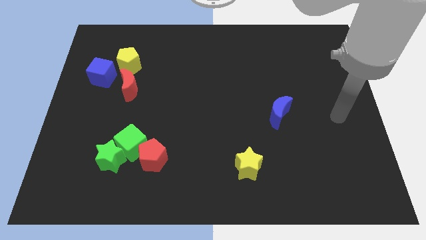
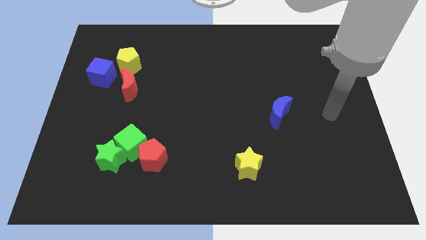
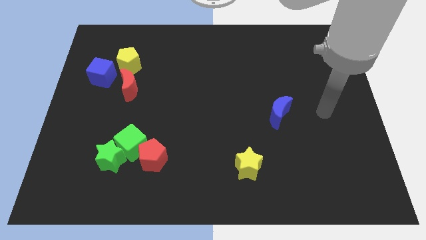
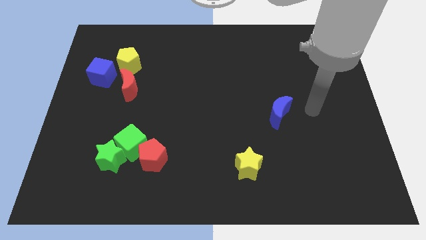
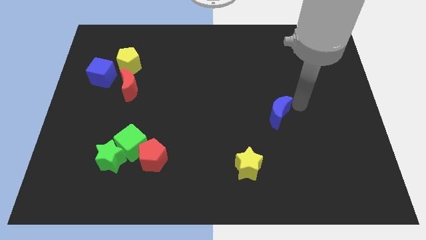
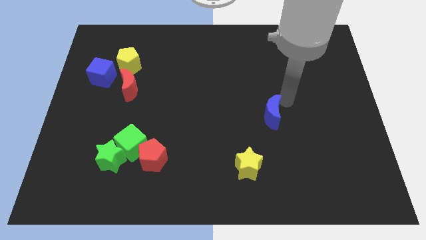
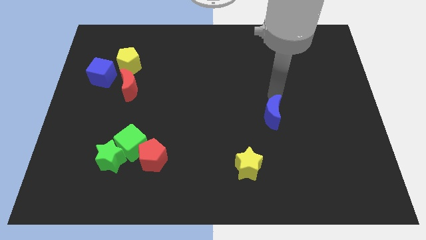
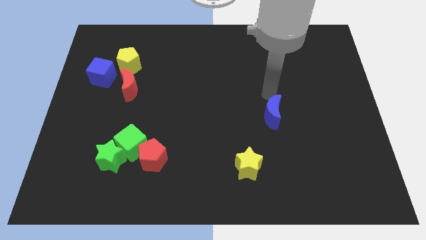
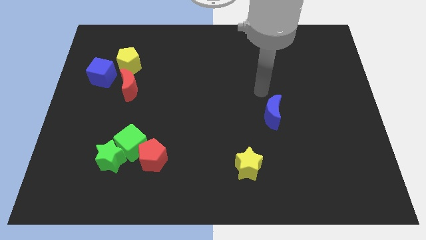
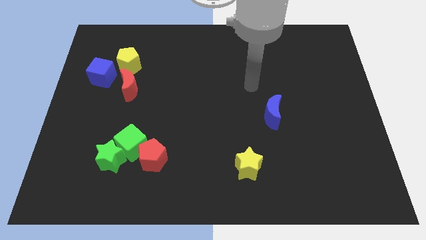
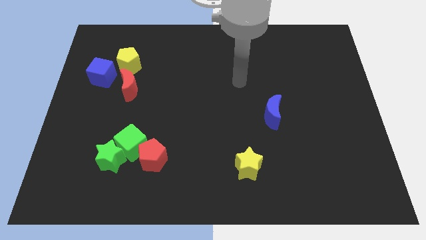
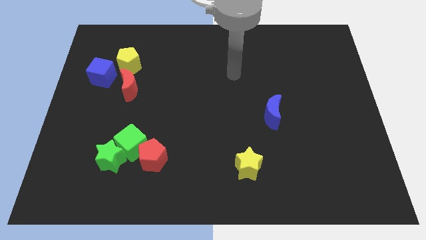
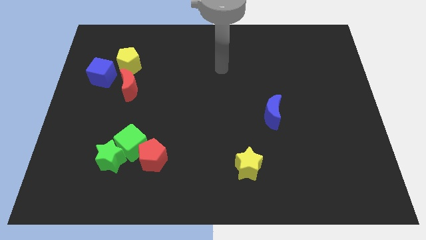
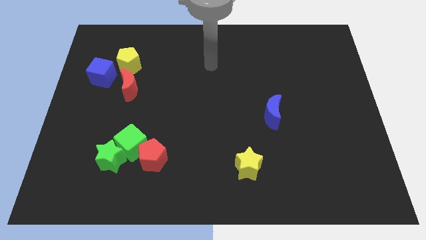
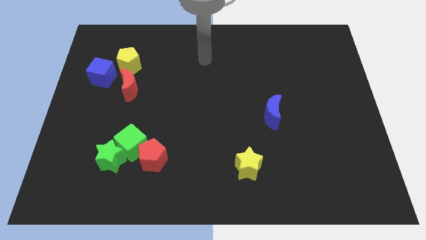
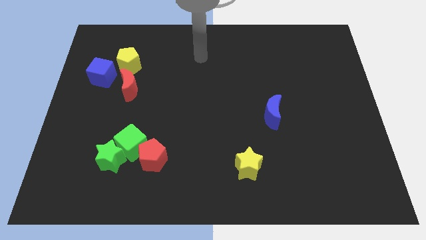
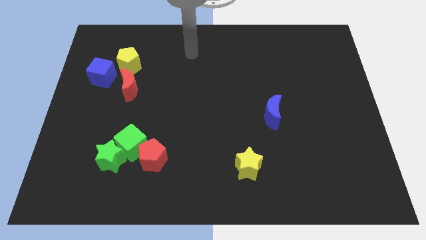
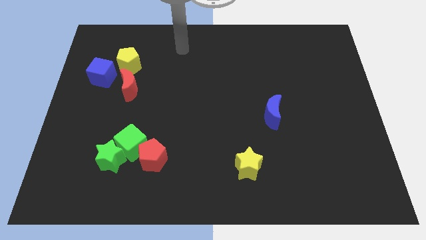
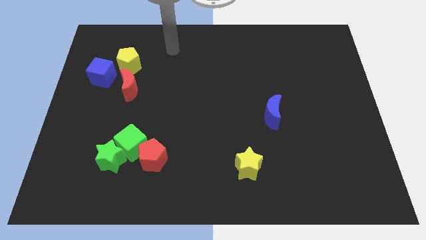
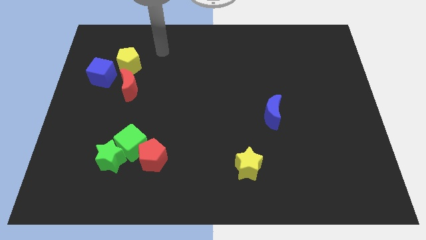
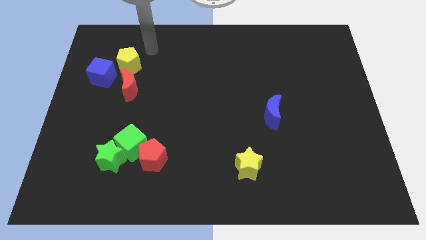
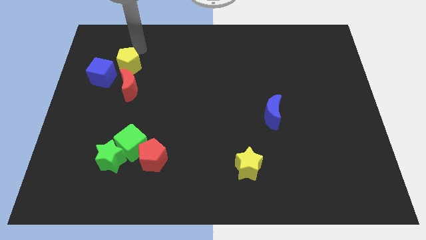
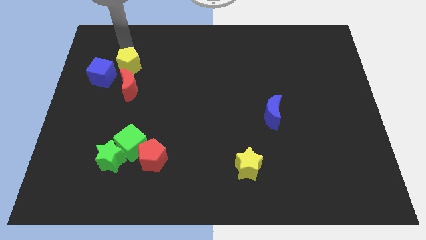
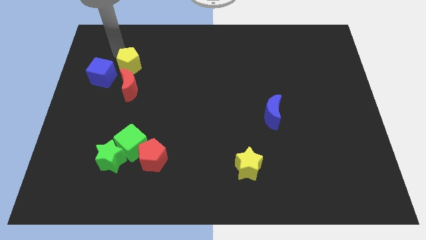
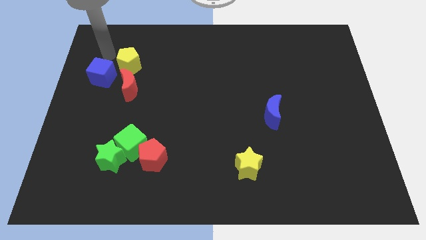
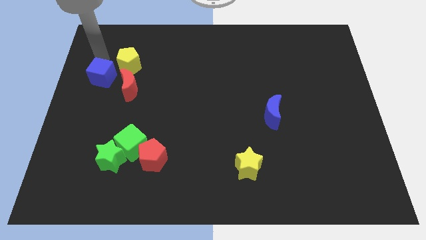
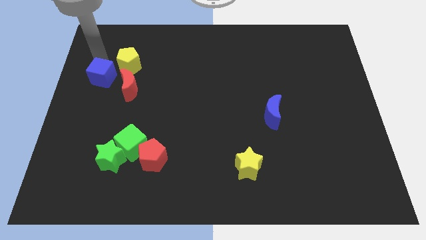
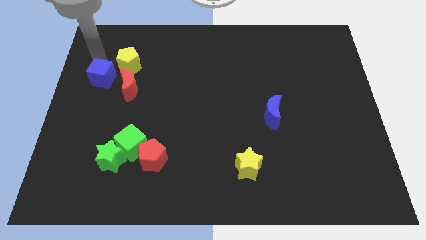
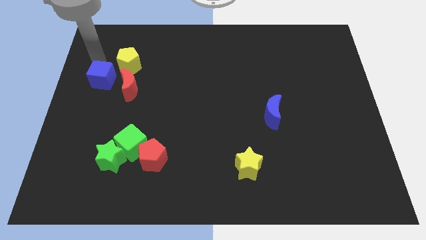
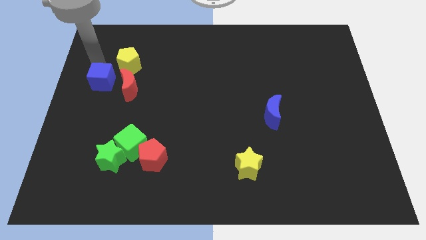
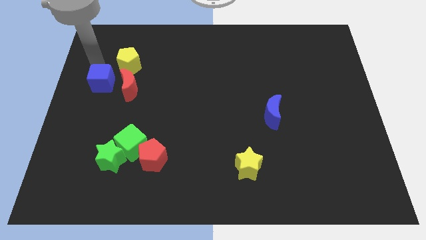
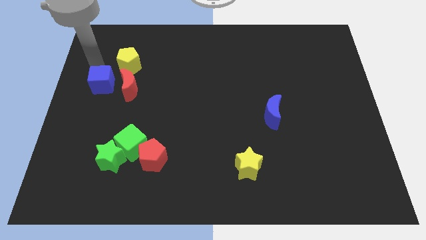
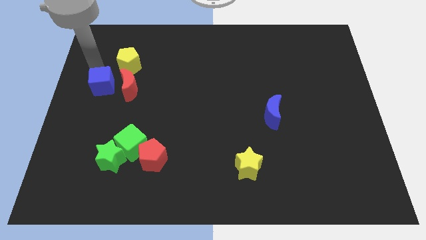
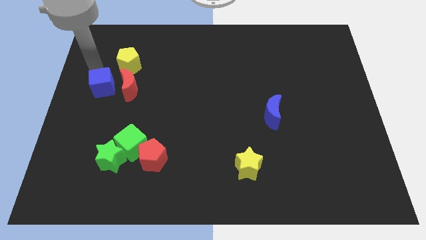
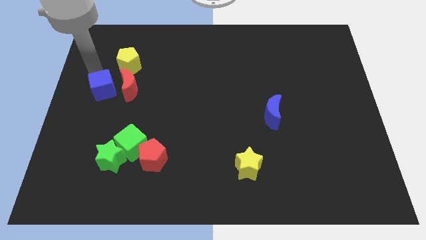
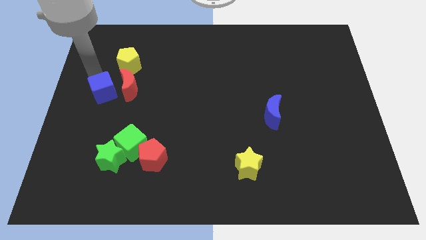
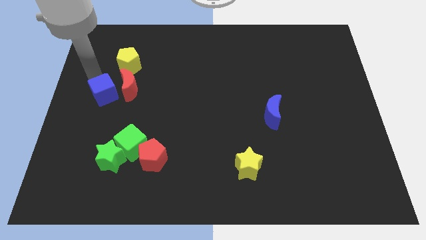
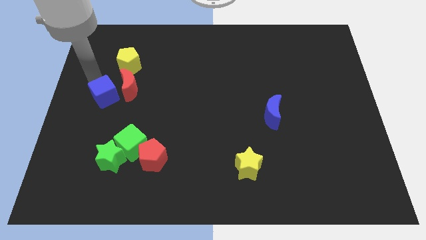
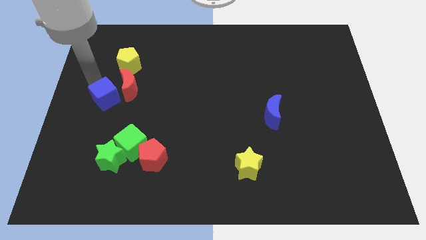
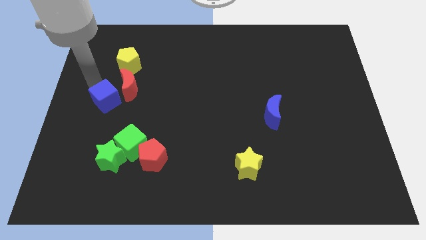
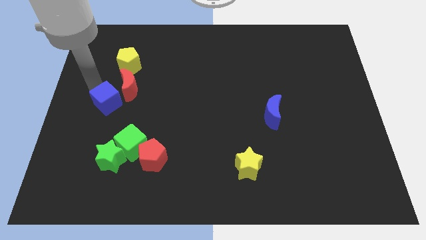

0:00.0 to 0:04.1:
push the blue cube a bit downwards and right diagonally

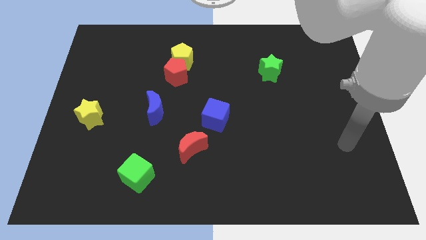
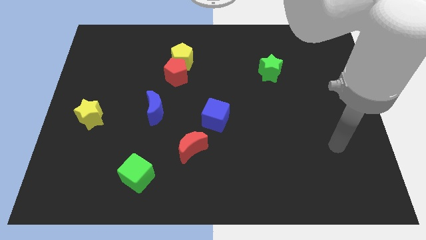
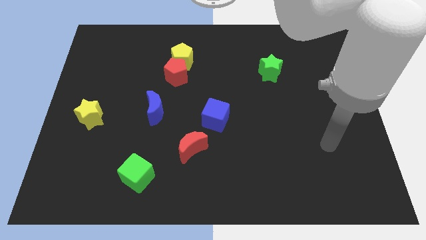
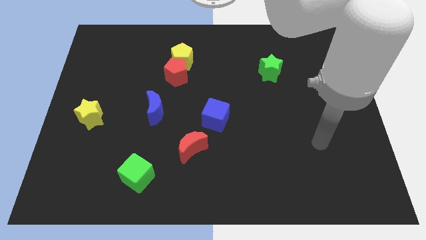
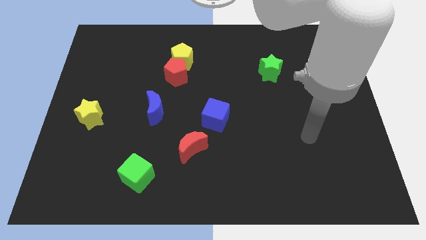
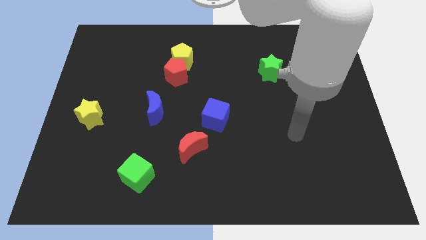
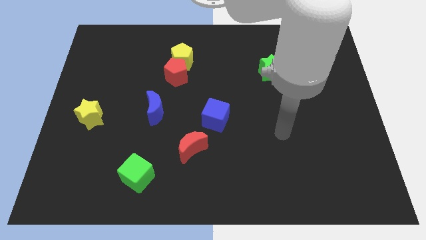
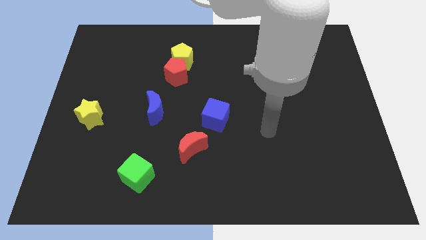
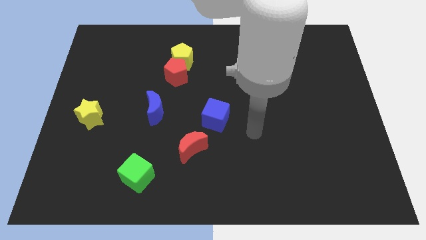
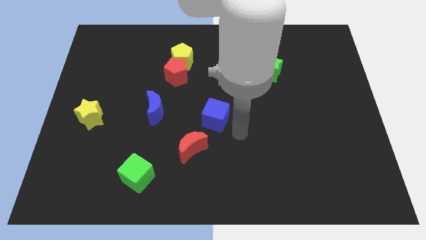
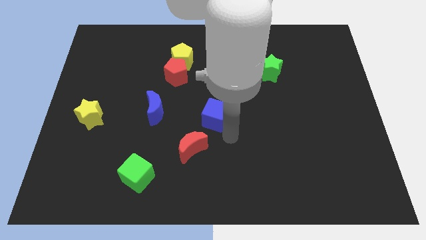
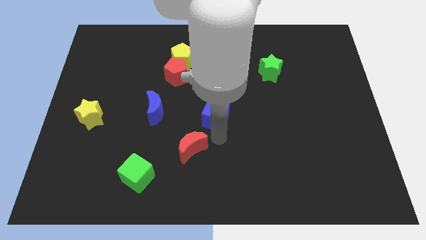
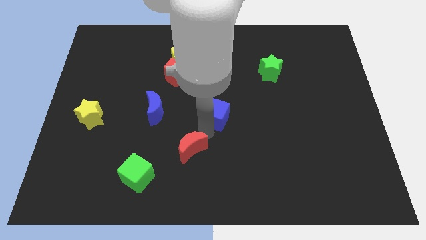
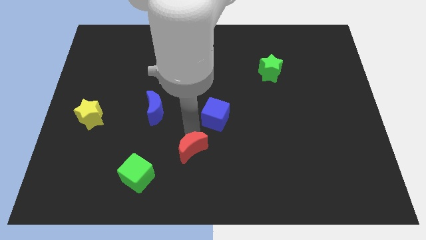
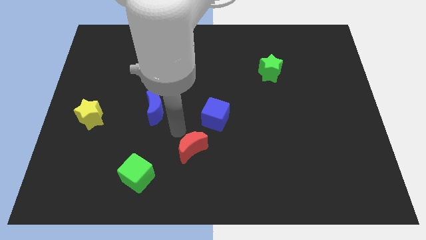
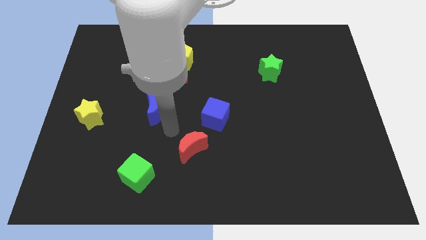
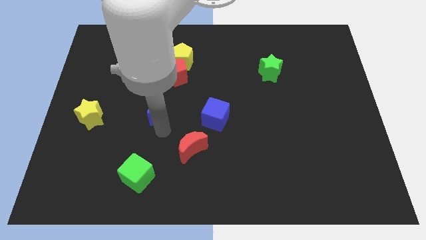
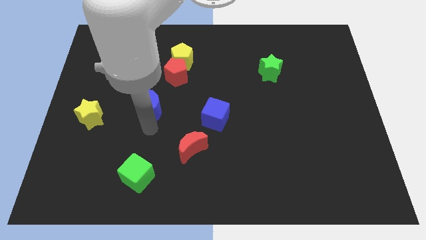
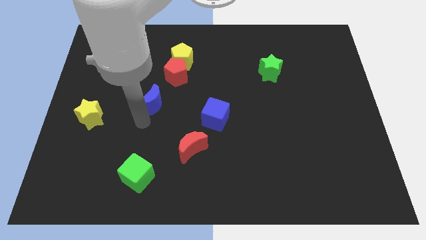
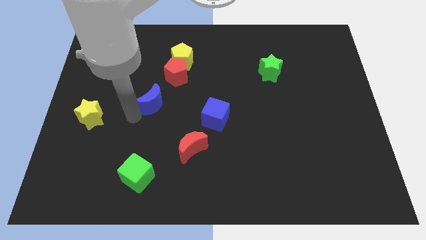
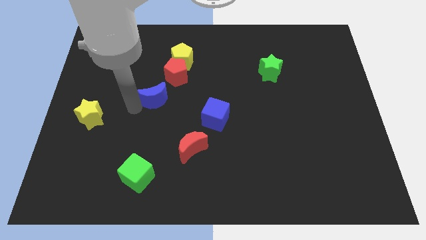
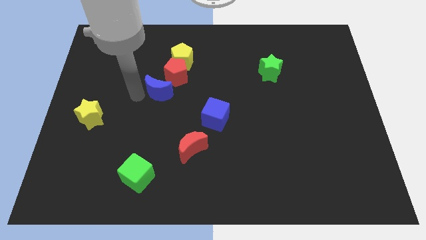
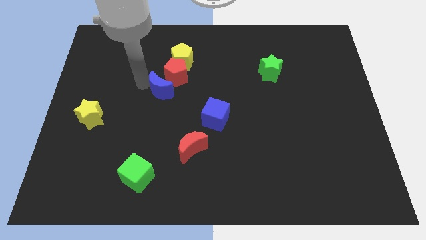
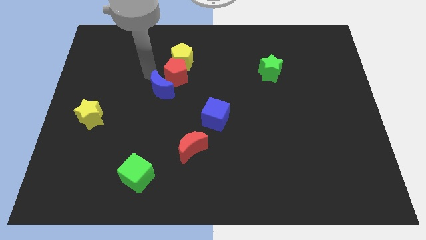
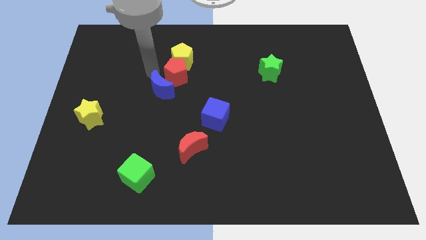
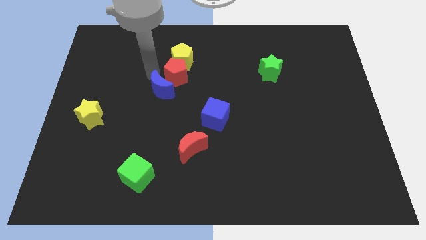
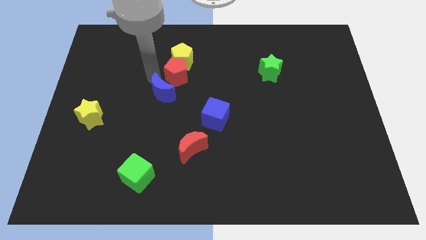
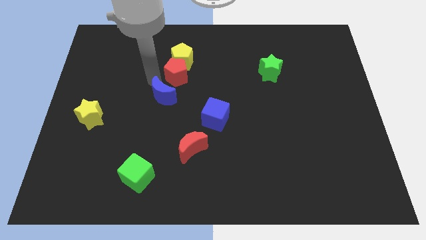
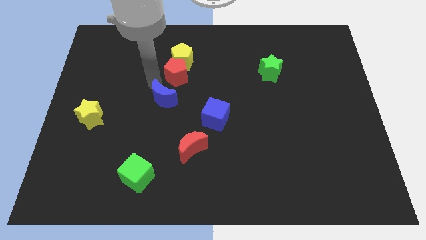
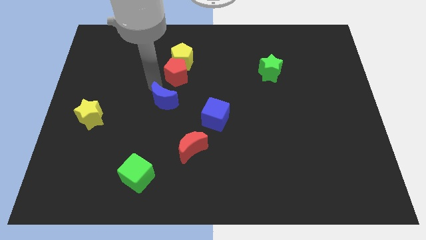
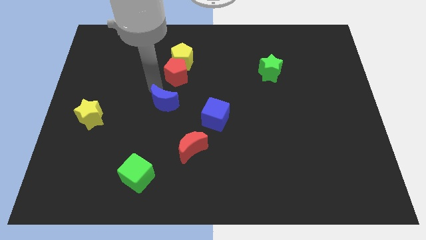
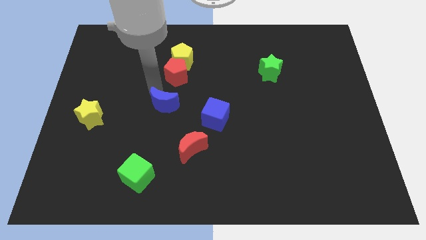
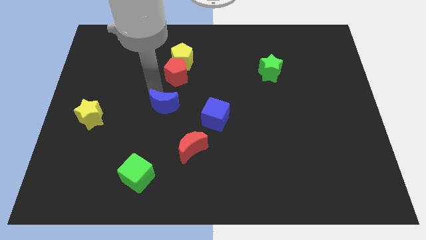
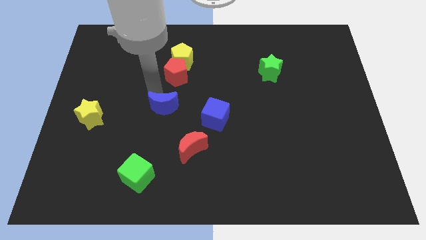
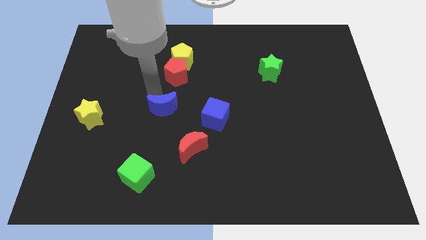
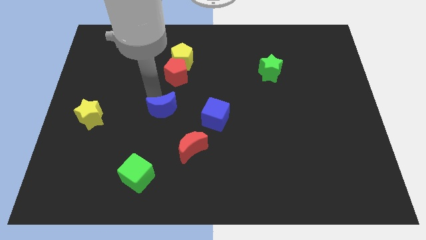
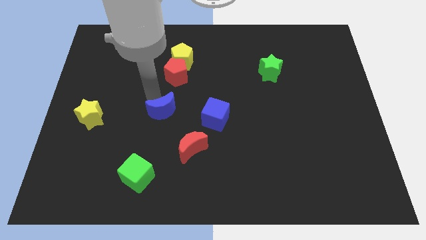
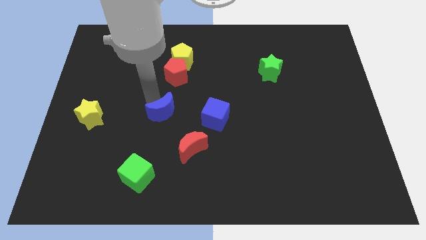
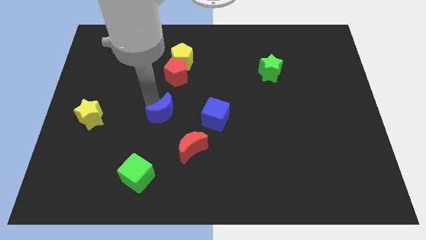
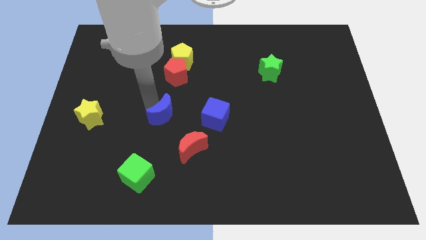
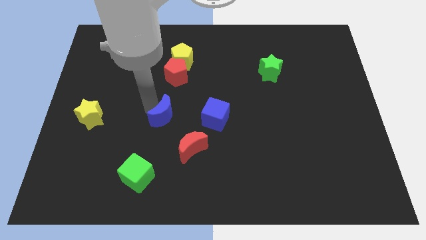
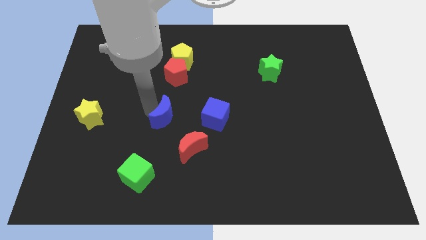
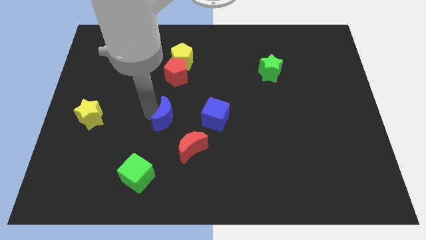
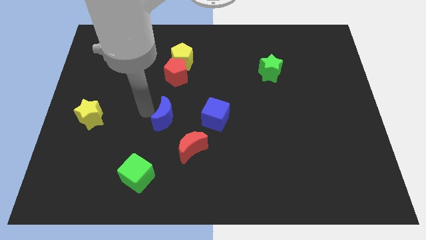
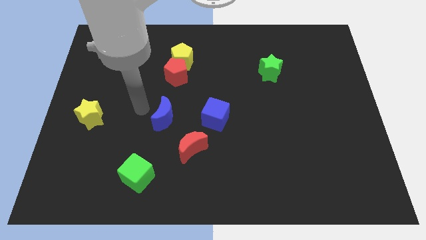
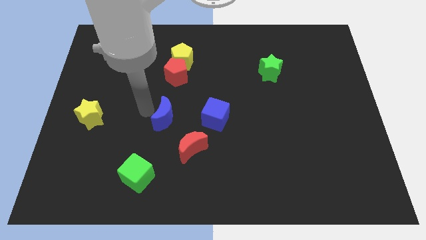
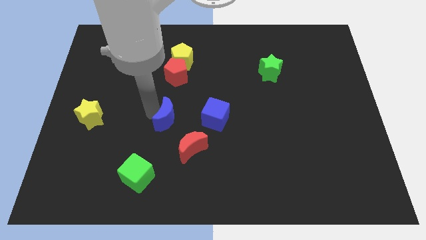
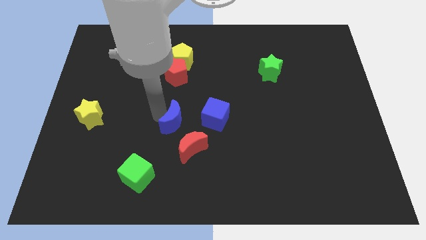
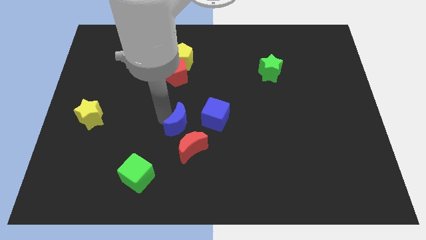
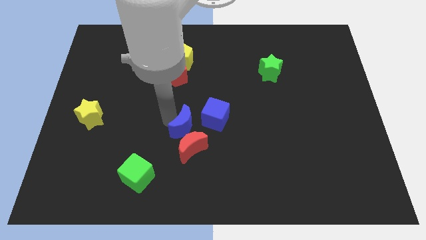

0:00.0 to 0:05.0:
slightly move the blue moon downwards and then right
